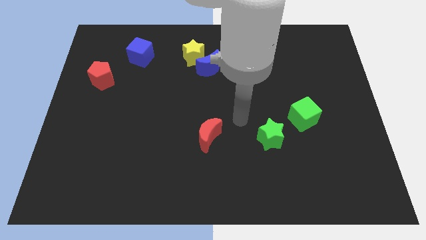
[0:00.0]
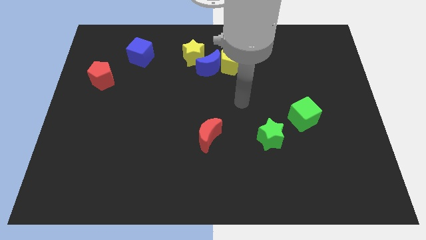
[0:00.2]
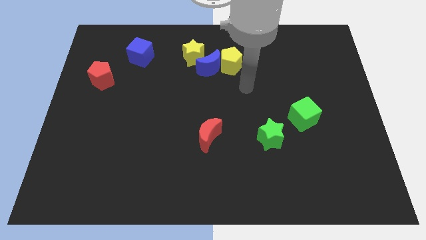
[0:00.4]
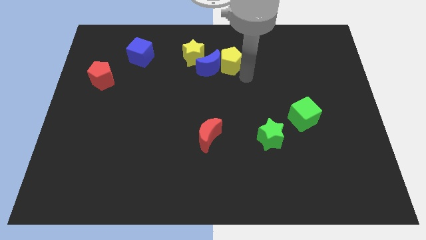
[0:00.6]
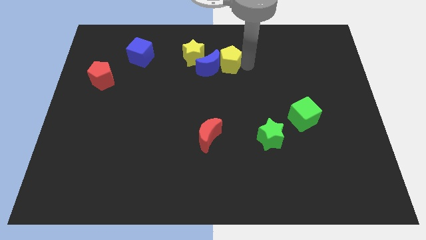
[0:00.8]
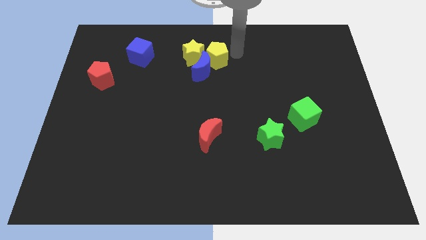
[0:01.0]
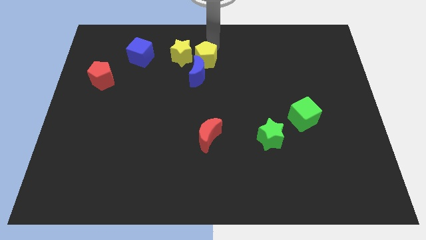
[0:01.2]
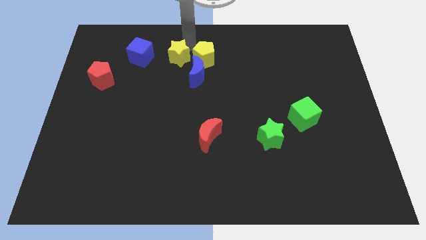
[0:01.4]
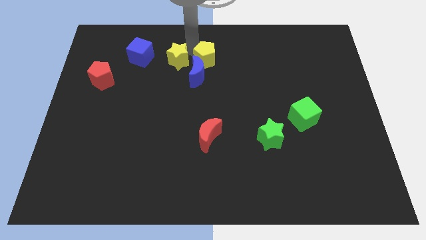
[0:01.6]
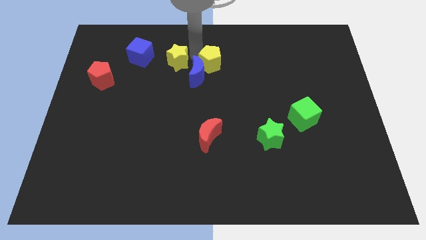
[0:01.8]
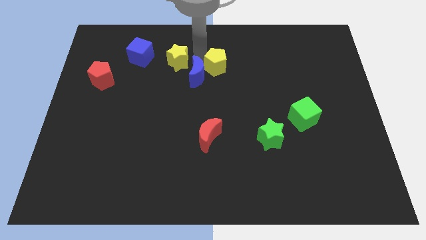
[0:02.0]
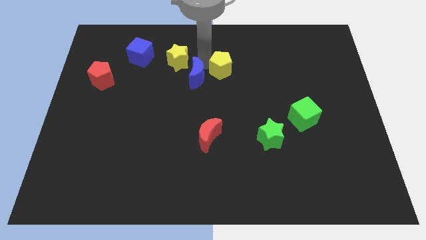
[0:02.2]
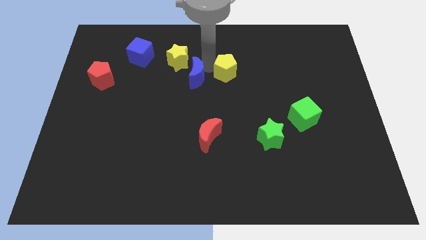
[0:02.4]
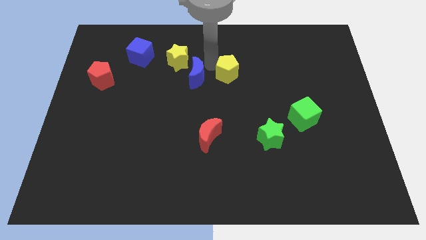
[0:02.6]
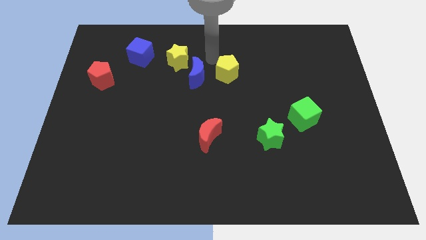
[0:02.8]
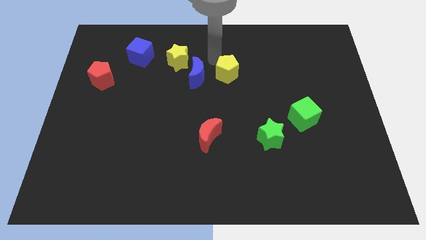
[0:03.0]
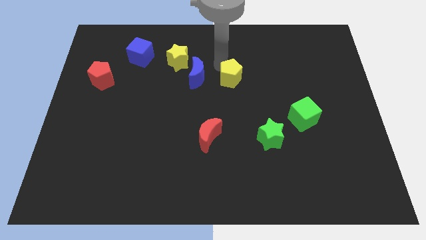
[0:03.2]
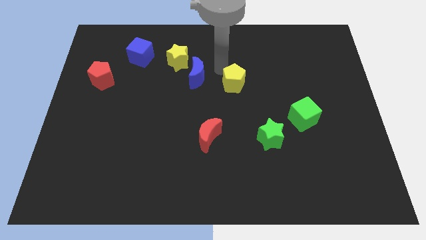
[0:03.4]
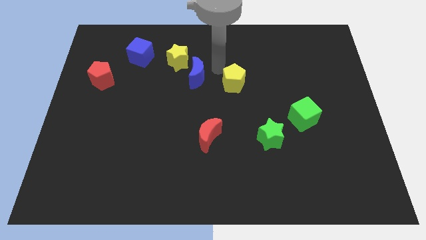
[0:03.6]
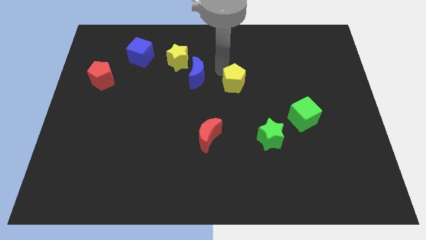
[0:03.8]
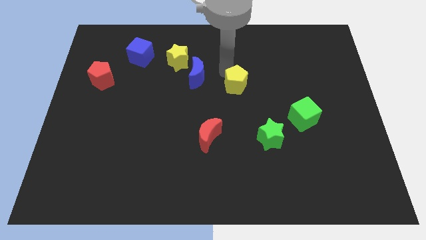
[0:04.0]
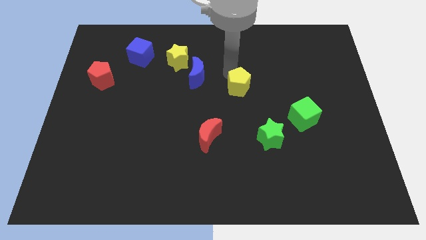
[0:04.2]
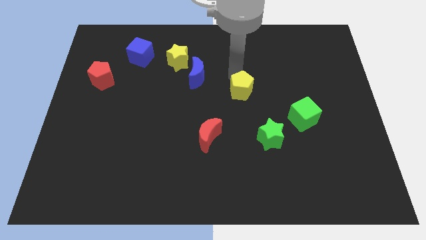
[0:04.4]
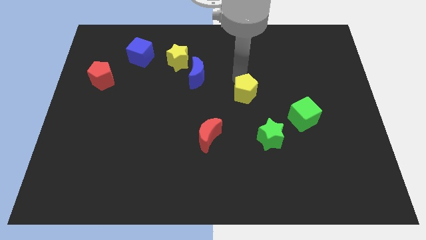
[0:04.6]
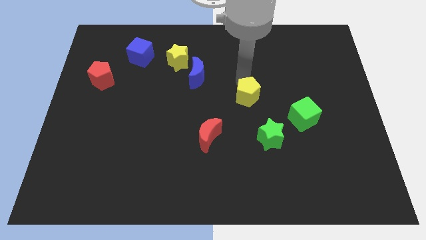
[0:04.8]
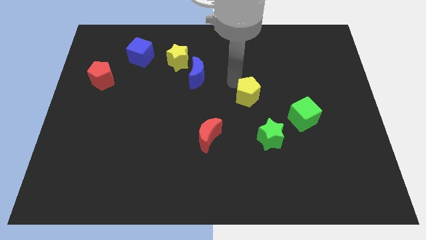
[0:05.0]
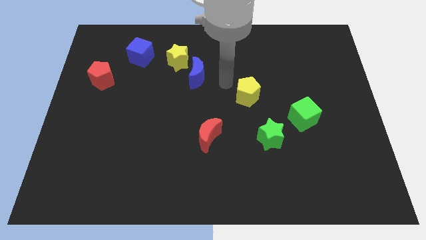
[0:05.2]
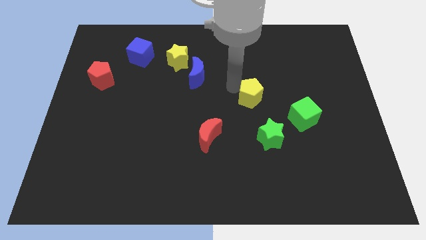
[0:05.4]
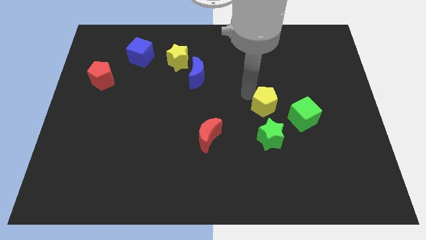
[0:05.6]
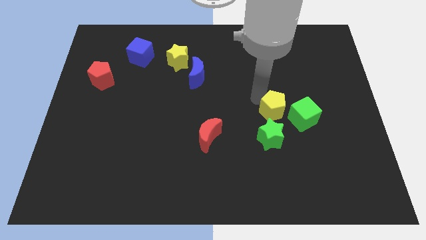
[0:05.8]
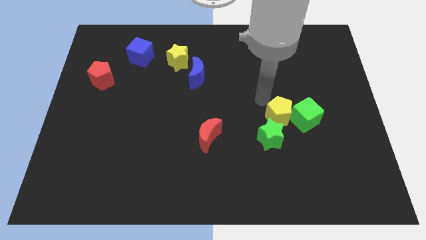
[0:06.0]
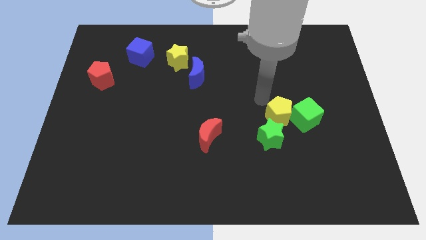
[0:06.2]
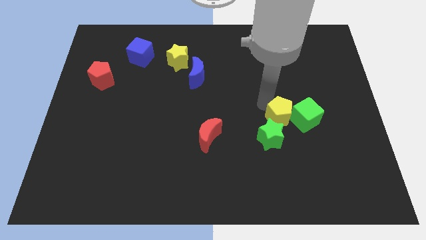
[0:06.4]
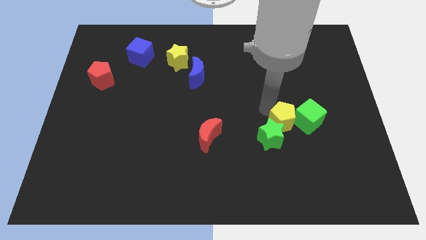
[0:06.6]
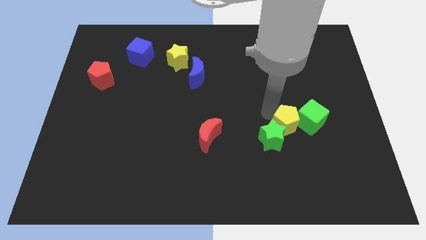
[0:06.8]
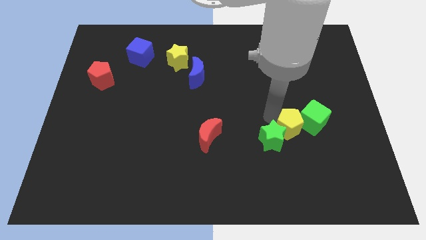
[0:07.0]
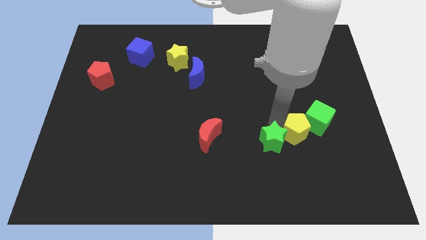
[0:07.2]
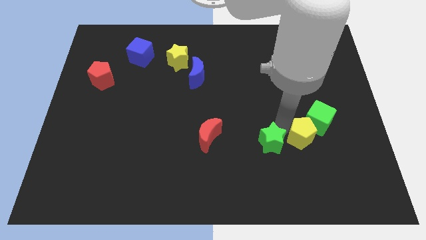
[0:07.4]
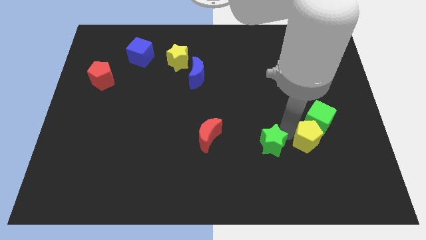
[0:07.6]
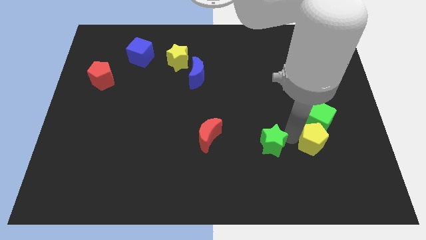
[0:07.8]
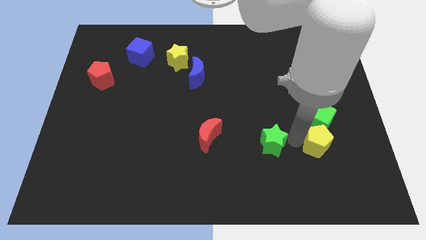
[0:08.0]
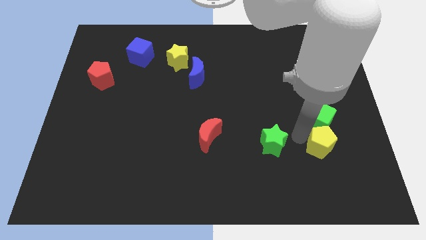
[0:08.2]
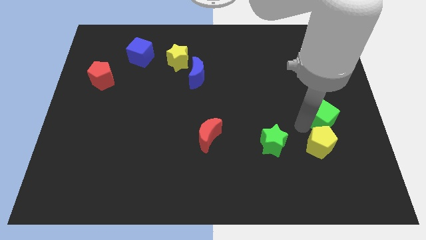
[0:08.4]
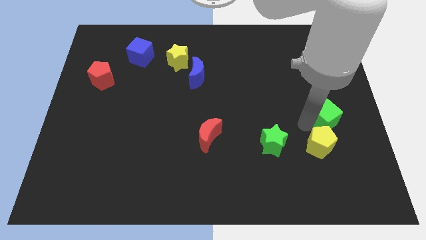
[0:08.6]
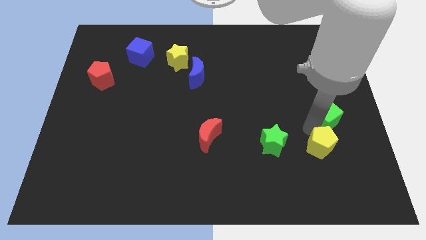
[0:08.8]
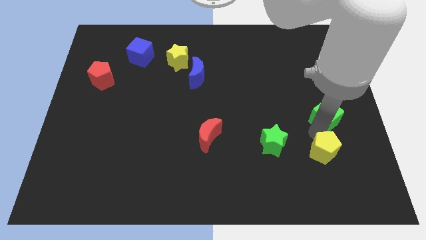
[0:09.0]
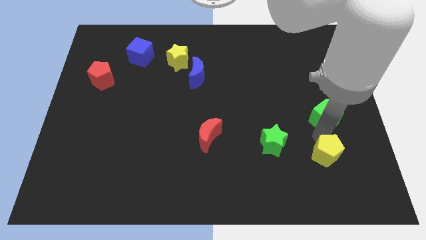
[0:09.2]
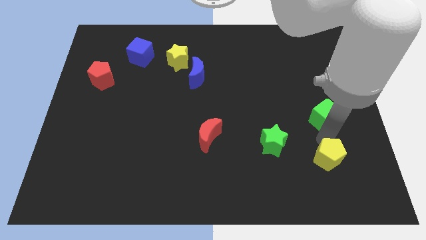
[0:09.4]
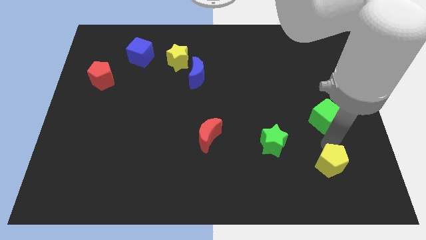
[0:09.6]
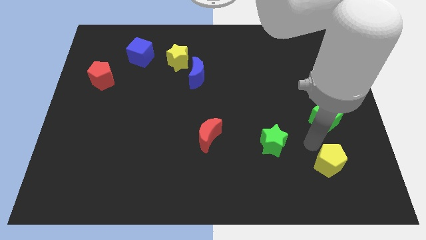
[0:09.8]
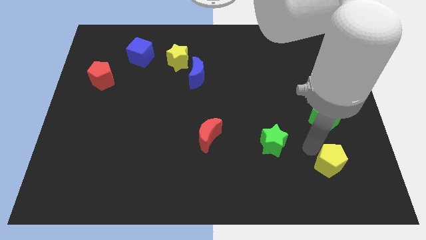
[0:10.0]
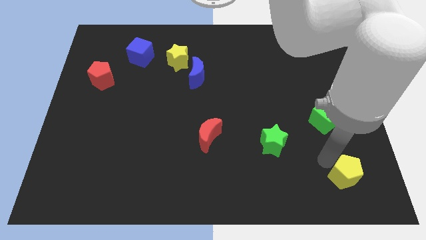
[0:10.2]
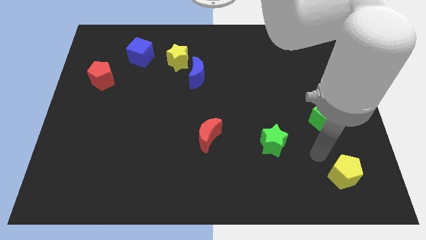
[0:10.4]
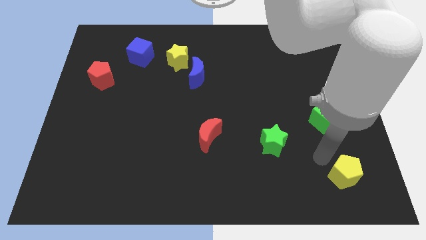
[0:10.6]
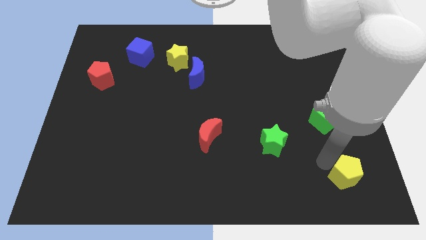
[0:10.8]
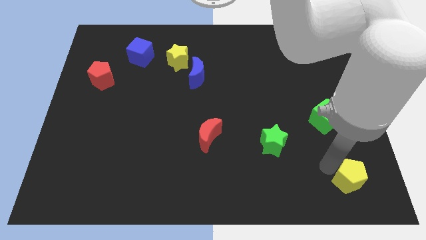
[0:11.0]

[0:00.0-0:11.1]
move the yellow pentagon to the lower right corner
